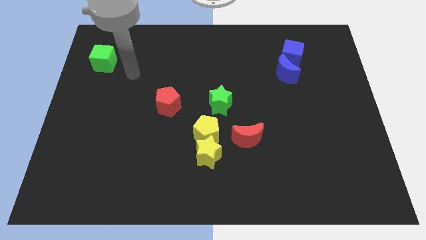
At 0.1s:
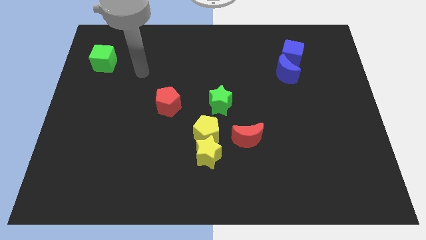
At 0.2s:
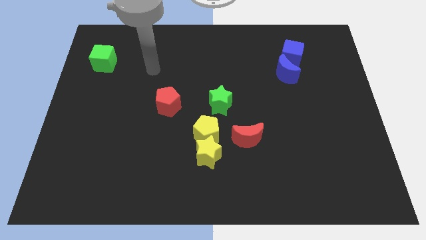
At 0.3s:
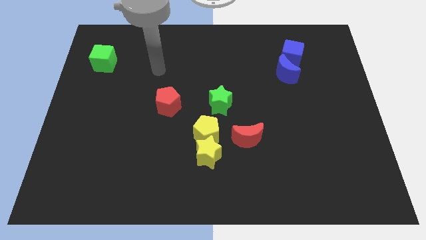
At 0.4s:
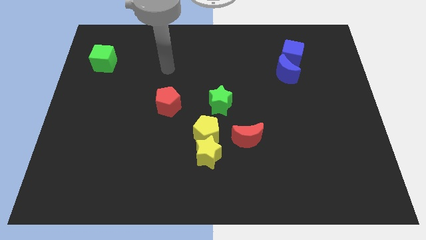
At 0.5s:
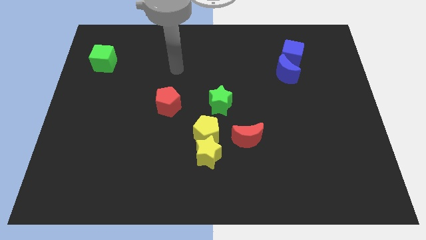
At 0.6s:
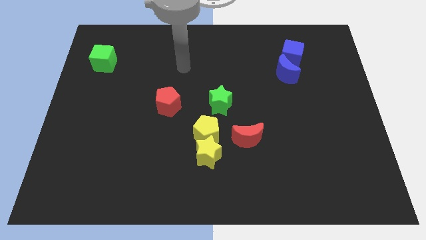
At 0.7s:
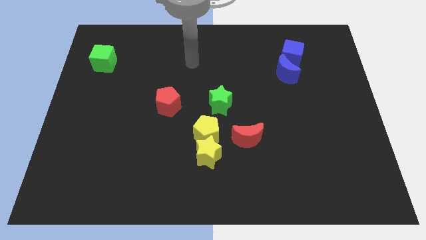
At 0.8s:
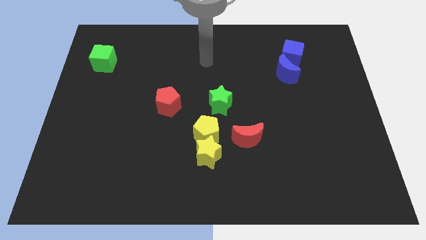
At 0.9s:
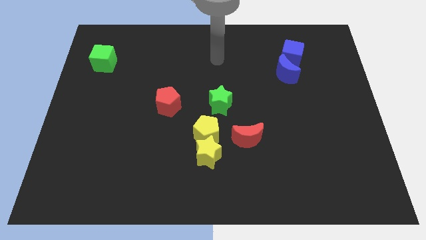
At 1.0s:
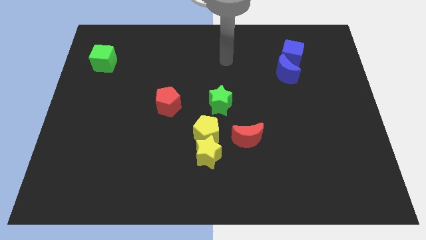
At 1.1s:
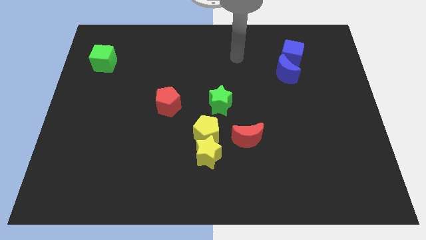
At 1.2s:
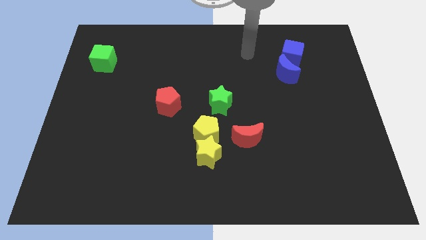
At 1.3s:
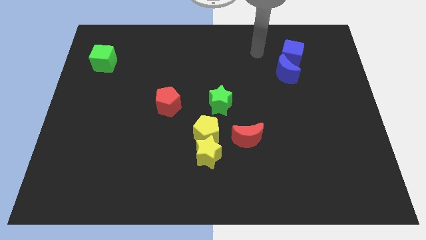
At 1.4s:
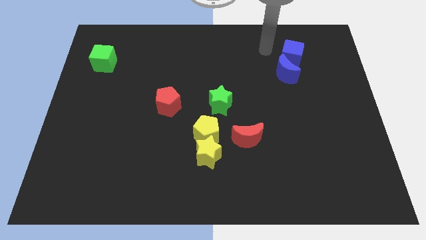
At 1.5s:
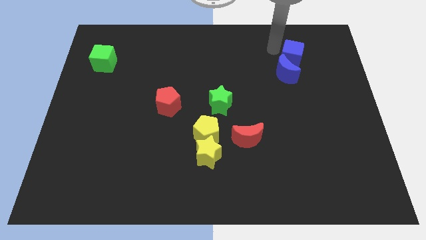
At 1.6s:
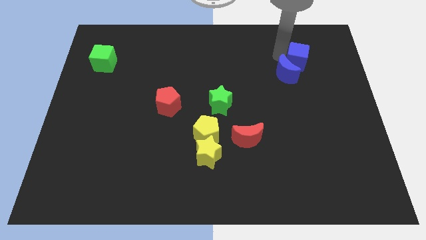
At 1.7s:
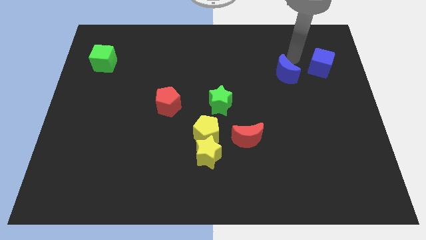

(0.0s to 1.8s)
separate the blue moon from the blue cube

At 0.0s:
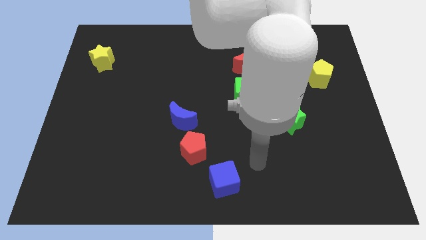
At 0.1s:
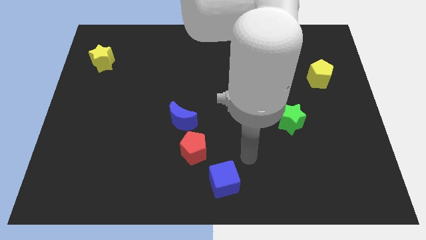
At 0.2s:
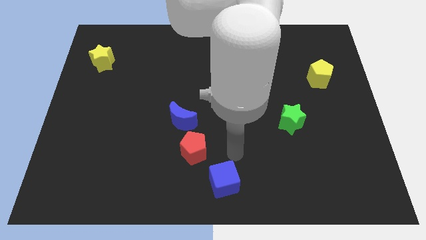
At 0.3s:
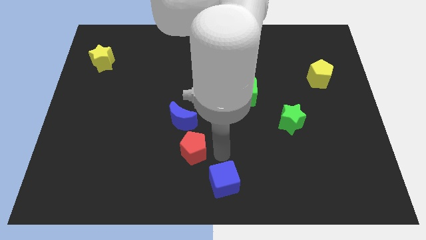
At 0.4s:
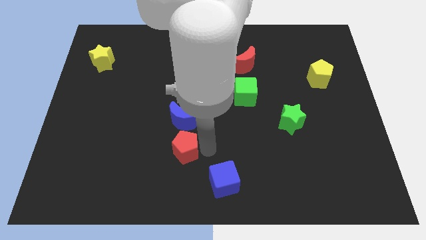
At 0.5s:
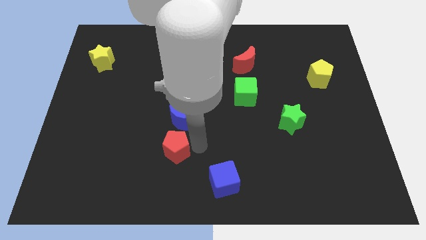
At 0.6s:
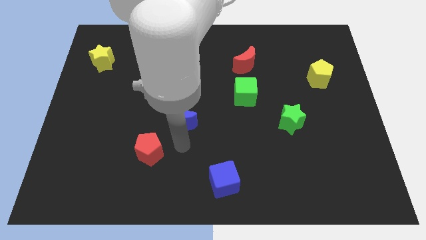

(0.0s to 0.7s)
move the blue moon away from the red pentagon

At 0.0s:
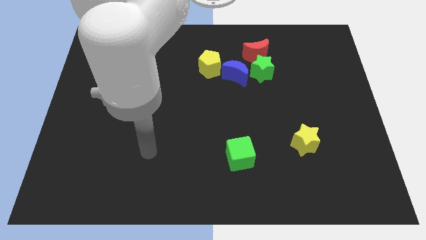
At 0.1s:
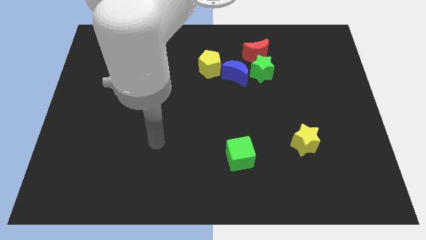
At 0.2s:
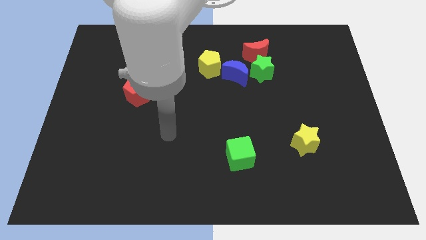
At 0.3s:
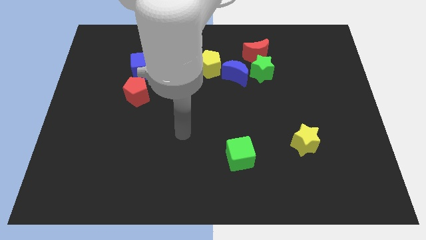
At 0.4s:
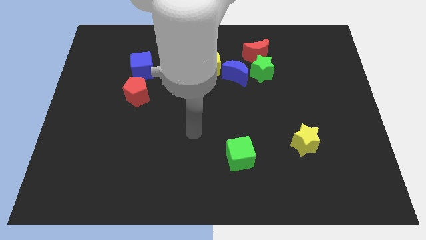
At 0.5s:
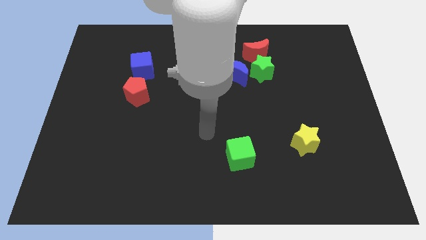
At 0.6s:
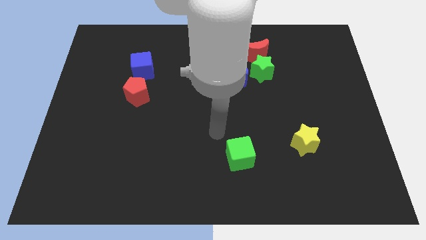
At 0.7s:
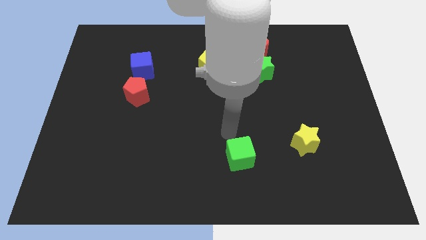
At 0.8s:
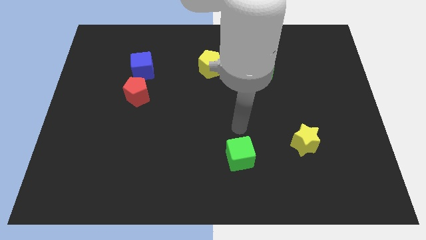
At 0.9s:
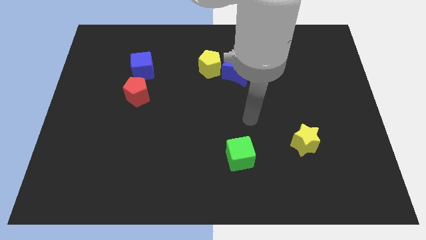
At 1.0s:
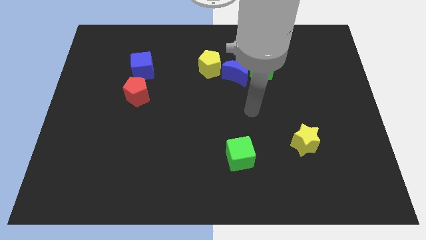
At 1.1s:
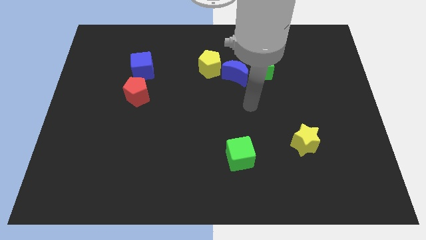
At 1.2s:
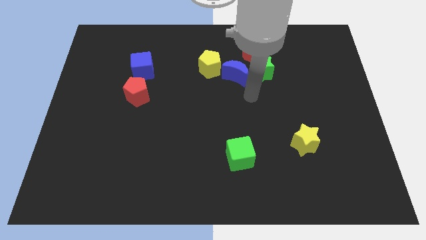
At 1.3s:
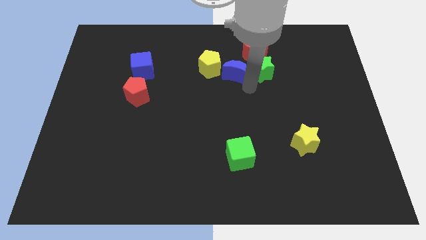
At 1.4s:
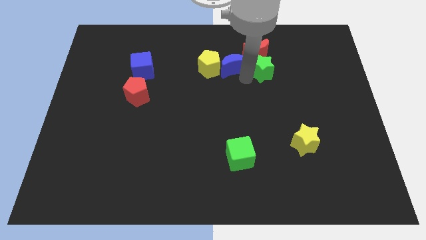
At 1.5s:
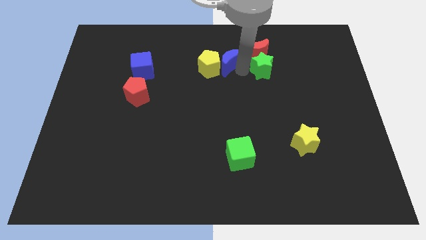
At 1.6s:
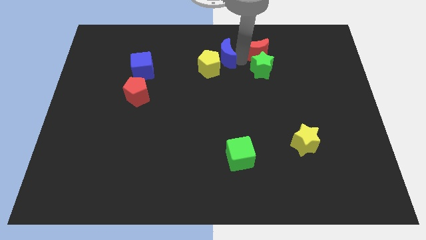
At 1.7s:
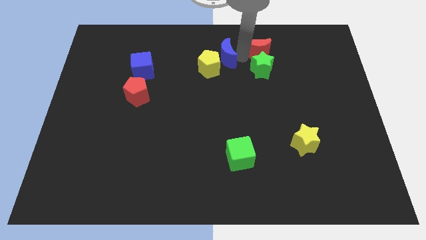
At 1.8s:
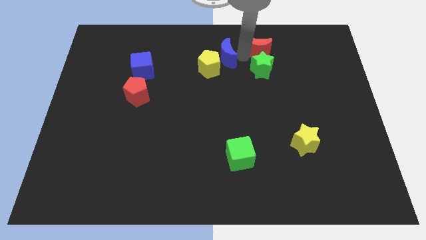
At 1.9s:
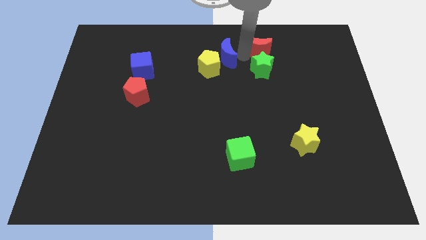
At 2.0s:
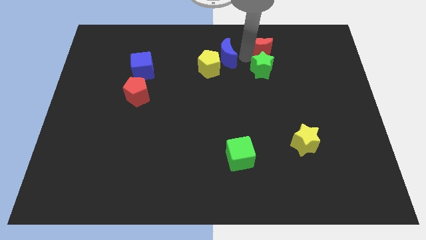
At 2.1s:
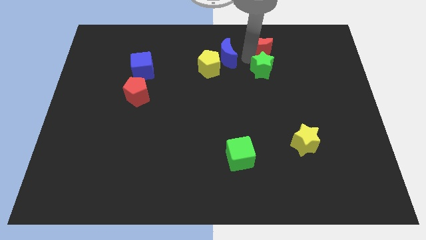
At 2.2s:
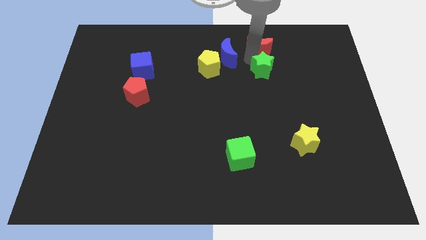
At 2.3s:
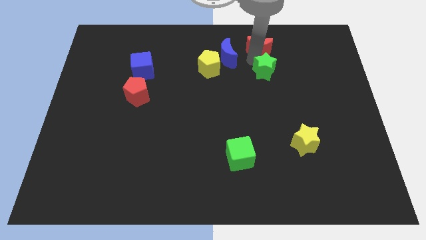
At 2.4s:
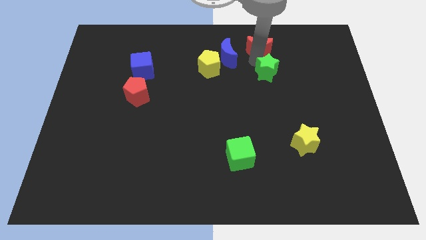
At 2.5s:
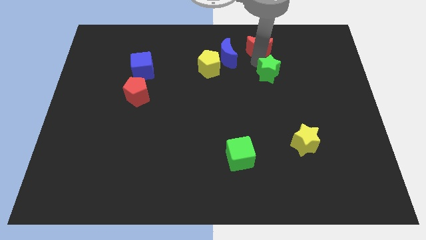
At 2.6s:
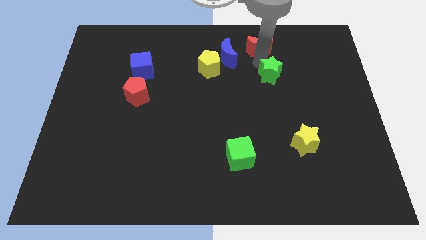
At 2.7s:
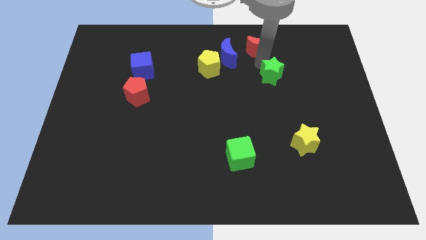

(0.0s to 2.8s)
pull the green star apart from the red moon and blue moon

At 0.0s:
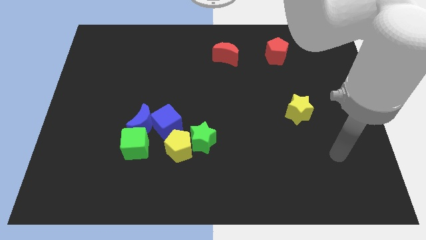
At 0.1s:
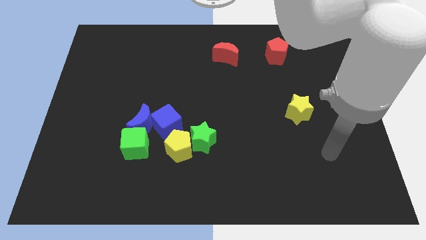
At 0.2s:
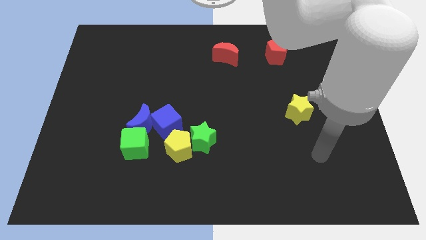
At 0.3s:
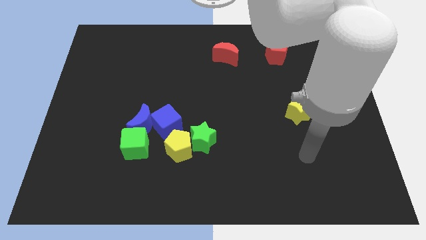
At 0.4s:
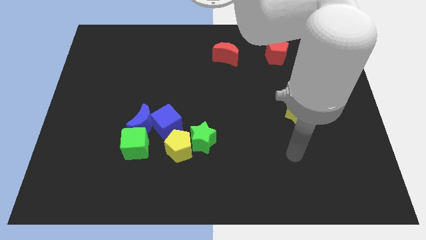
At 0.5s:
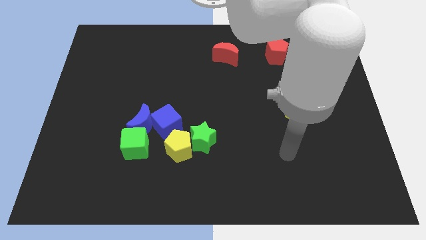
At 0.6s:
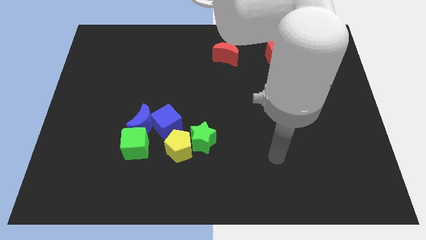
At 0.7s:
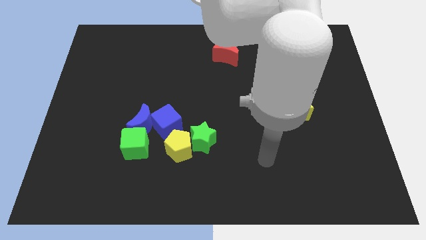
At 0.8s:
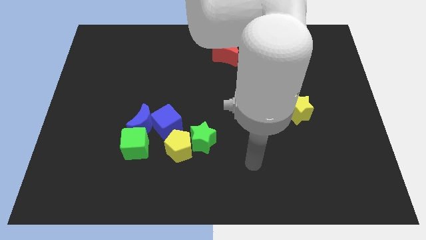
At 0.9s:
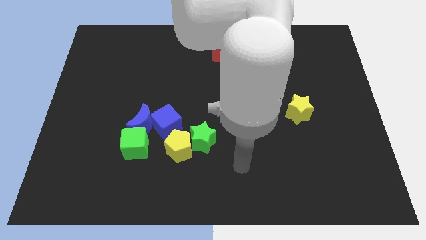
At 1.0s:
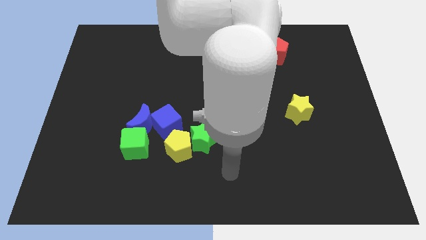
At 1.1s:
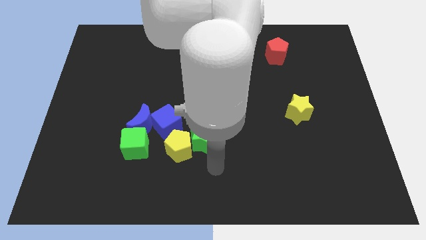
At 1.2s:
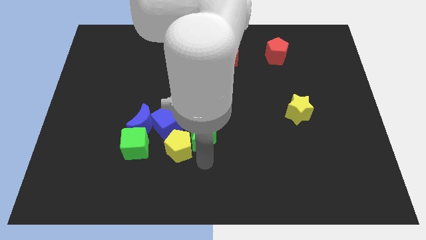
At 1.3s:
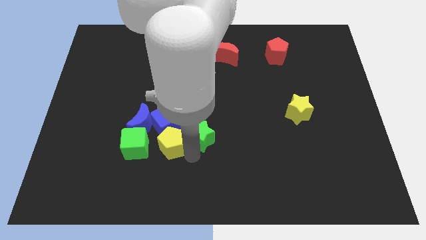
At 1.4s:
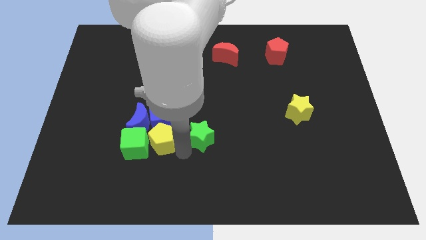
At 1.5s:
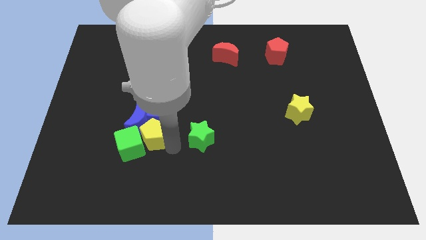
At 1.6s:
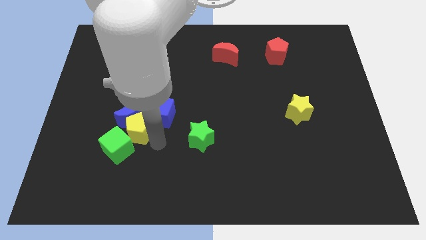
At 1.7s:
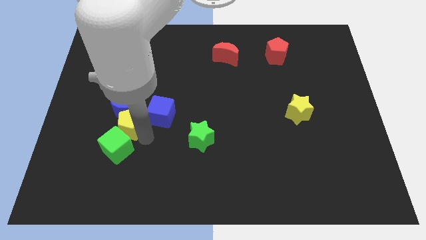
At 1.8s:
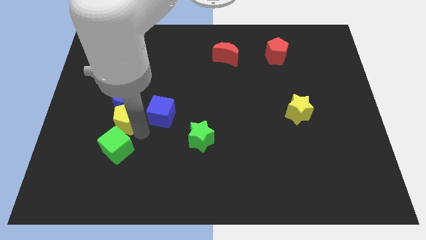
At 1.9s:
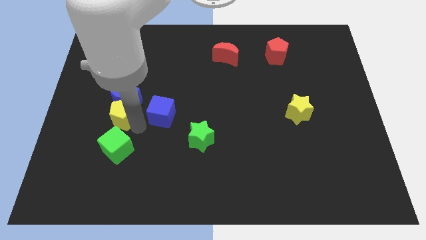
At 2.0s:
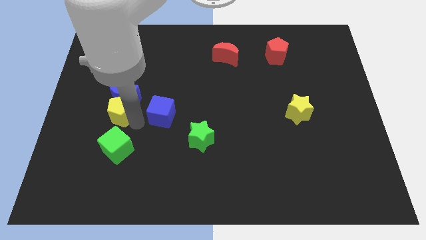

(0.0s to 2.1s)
pull the blue moon apart from the blue cube and green cube

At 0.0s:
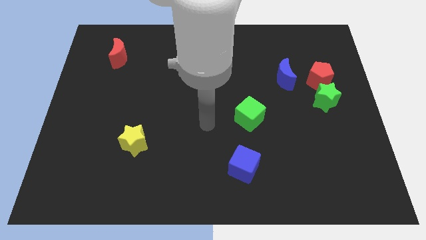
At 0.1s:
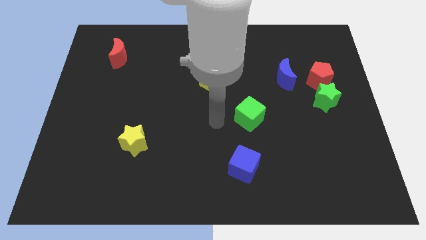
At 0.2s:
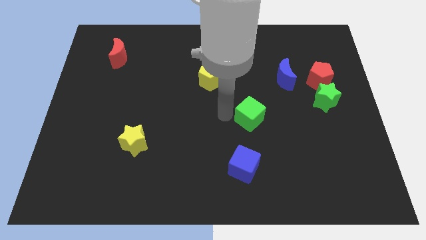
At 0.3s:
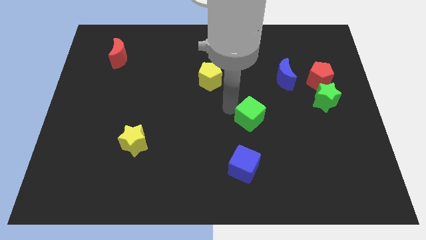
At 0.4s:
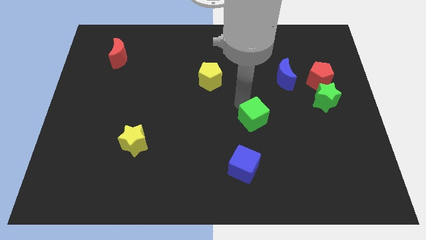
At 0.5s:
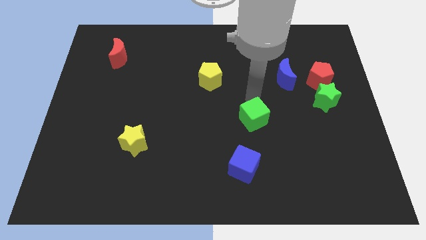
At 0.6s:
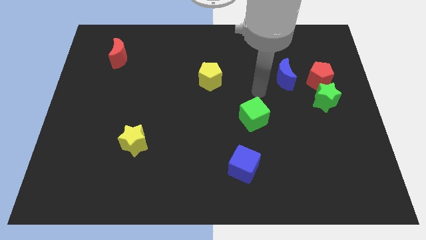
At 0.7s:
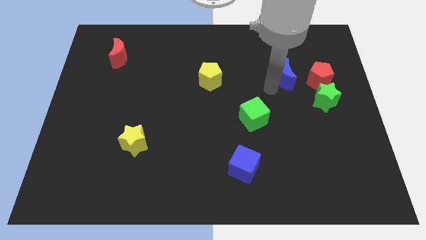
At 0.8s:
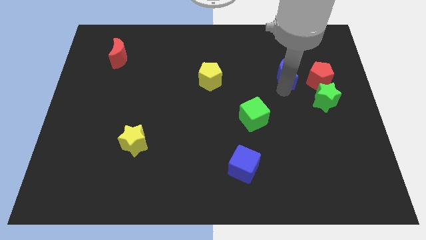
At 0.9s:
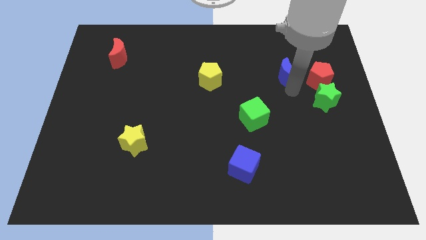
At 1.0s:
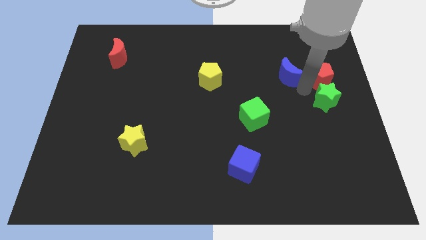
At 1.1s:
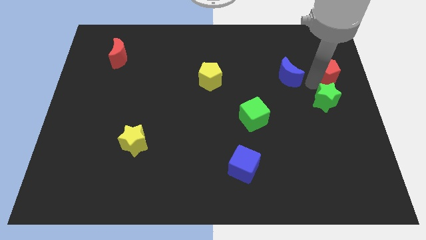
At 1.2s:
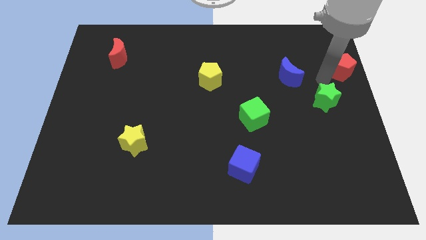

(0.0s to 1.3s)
move the green star away from the red pentagon

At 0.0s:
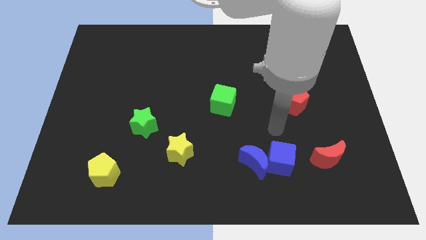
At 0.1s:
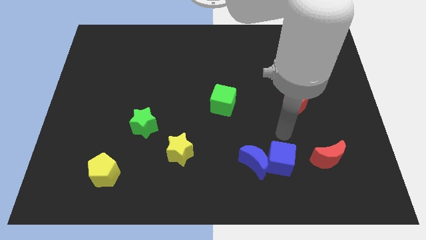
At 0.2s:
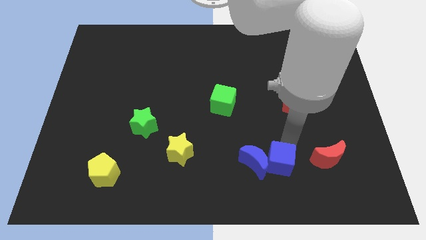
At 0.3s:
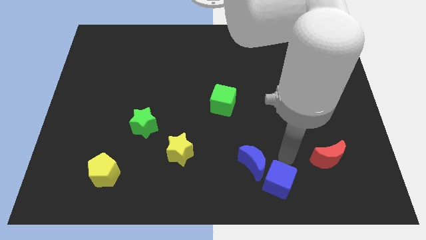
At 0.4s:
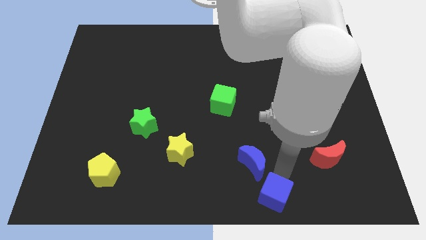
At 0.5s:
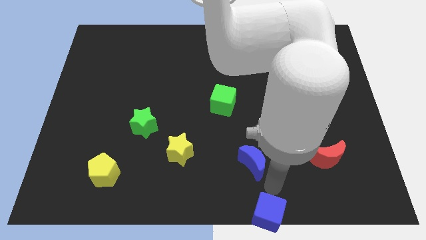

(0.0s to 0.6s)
move the blue moon away from the blue cube
